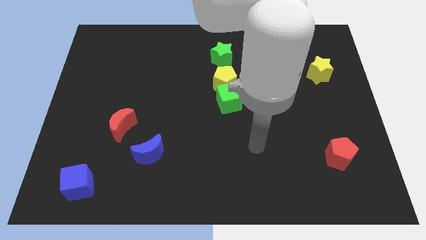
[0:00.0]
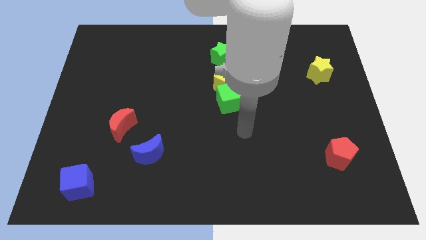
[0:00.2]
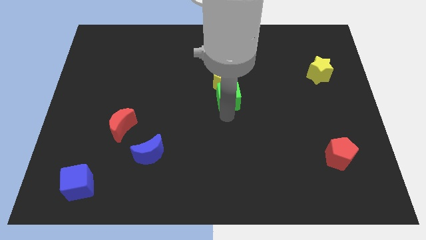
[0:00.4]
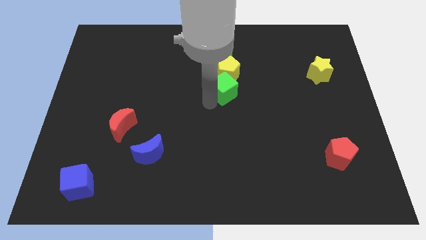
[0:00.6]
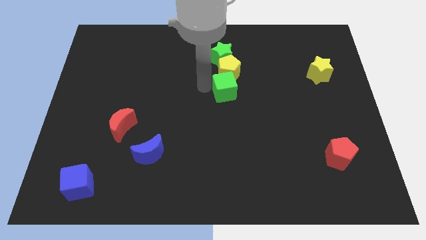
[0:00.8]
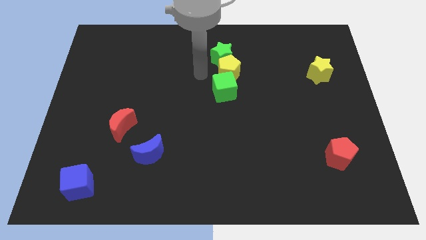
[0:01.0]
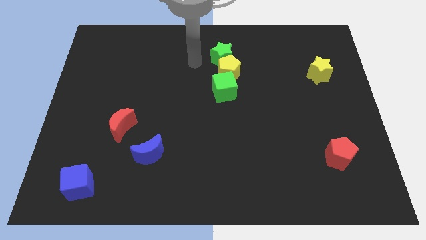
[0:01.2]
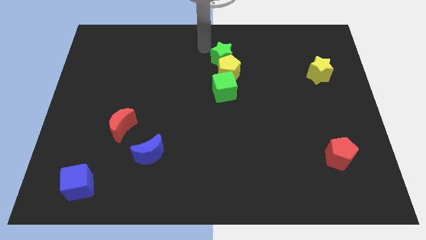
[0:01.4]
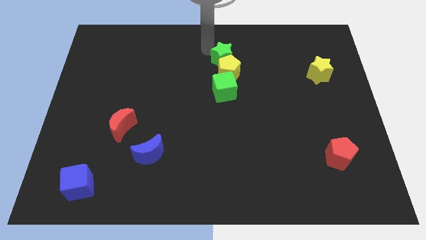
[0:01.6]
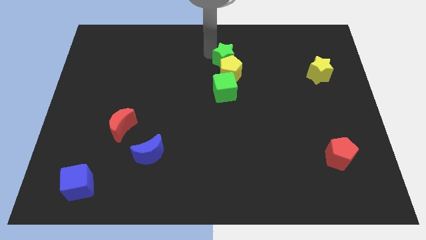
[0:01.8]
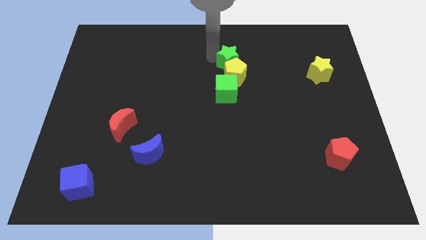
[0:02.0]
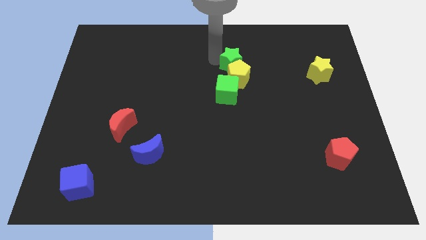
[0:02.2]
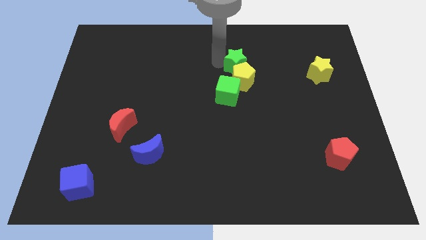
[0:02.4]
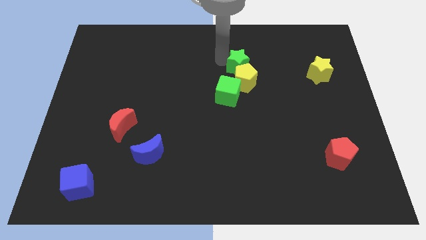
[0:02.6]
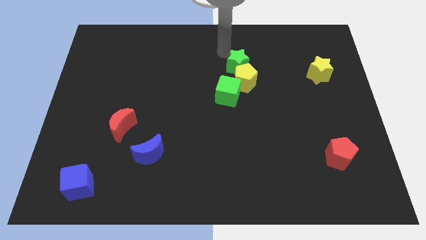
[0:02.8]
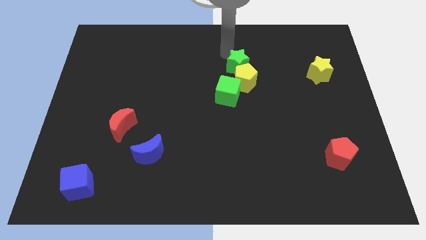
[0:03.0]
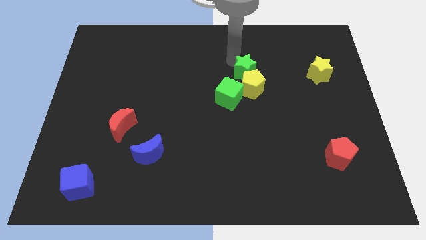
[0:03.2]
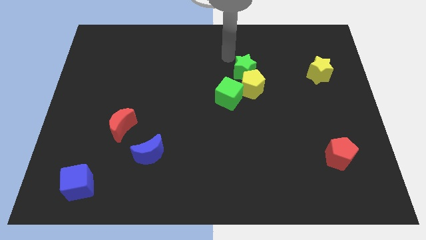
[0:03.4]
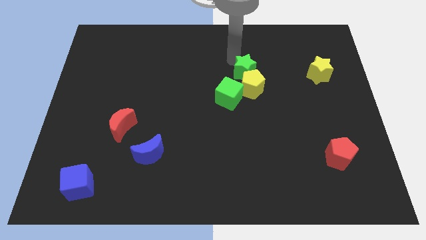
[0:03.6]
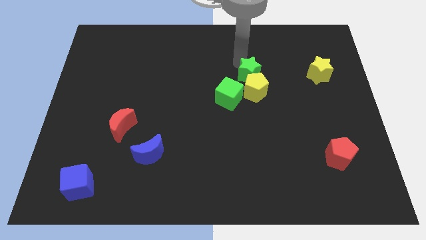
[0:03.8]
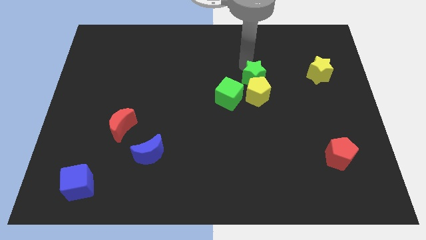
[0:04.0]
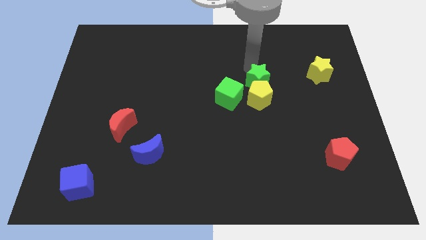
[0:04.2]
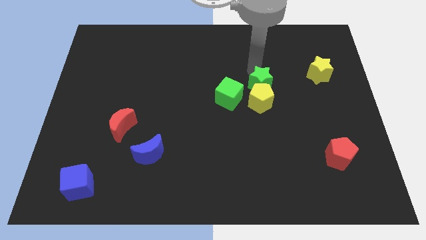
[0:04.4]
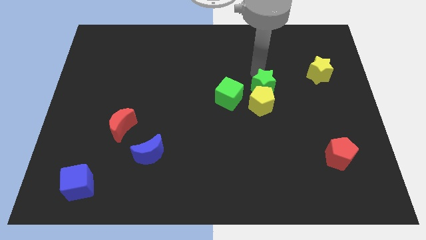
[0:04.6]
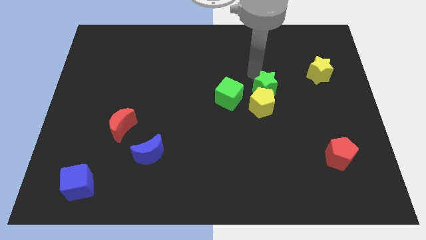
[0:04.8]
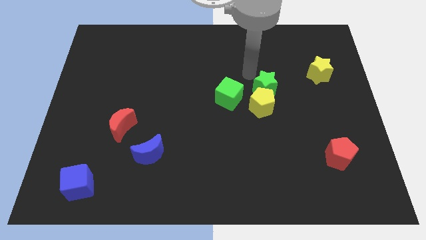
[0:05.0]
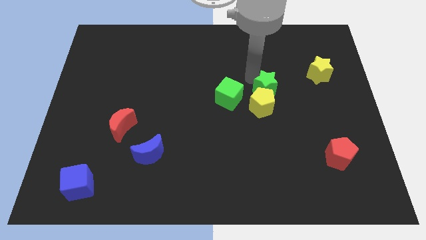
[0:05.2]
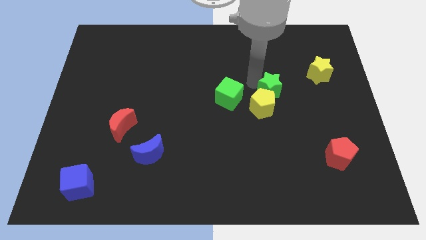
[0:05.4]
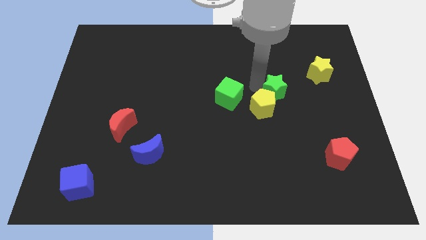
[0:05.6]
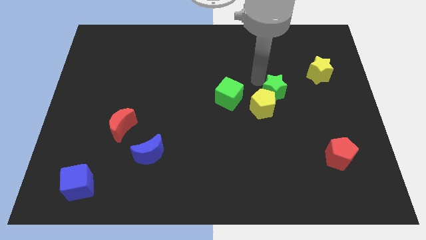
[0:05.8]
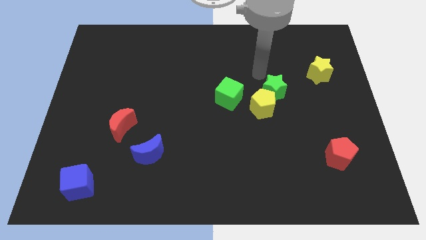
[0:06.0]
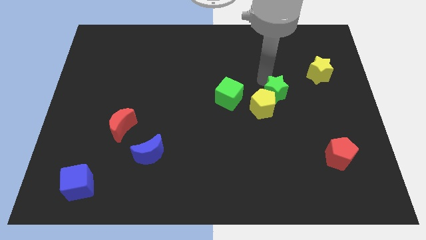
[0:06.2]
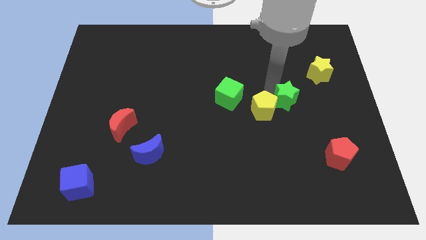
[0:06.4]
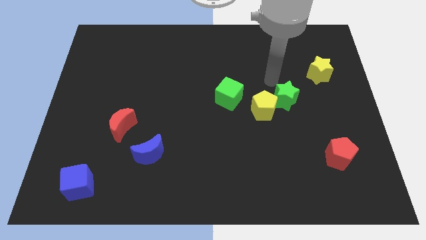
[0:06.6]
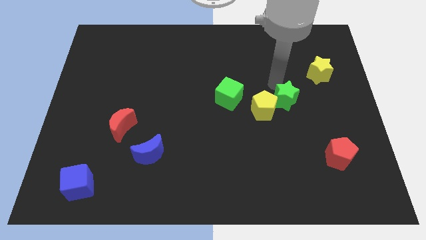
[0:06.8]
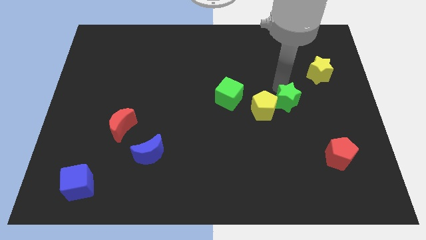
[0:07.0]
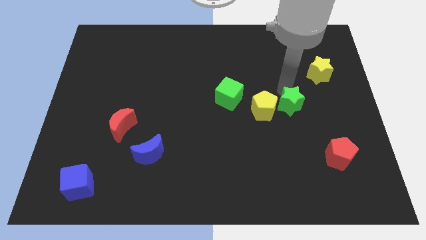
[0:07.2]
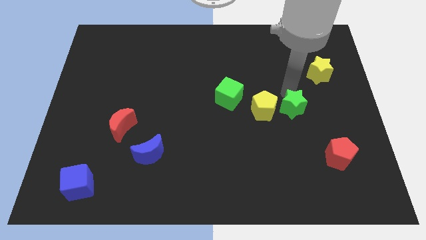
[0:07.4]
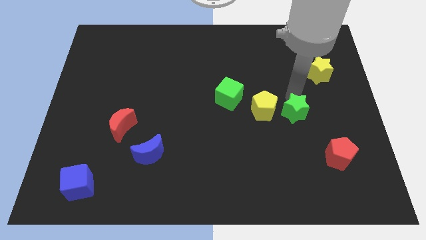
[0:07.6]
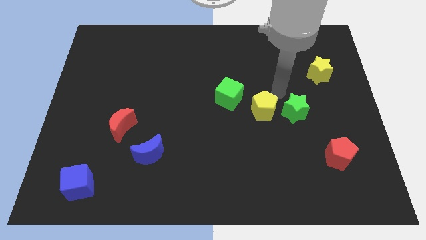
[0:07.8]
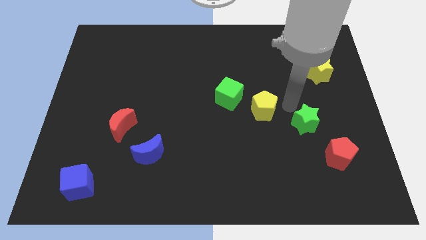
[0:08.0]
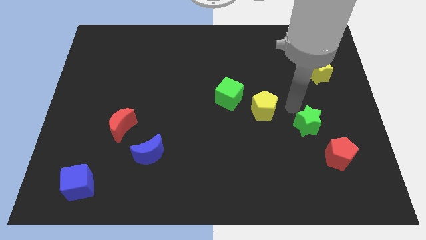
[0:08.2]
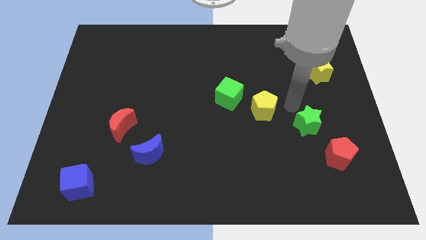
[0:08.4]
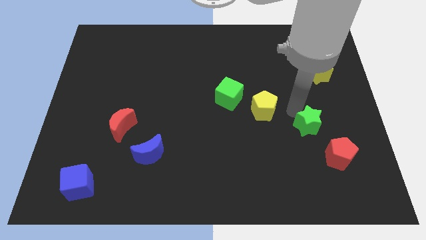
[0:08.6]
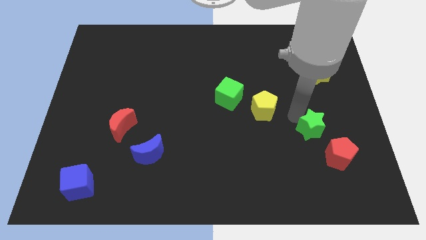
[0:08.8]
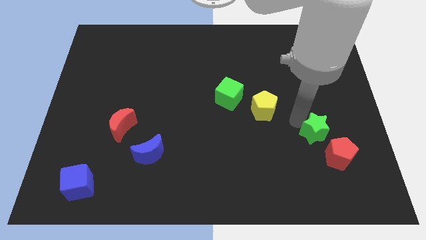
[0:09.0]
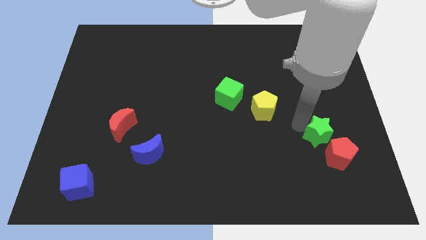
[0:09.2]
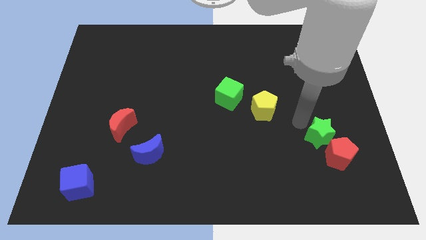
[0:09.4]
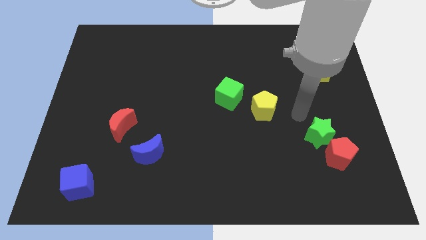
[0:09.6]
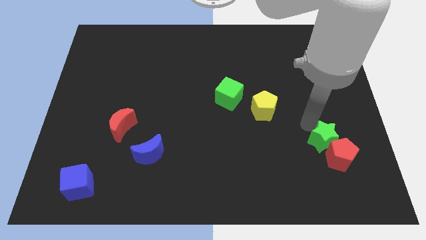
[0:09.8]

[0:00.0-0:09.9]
move the green star towards the red pentagon

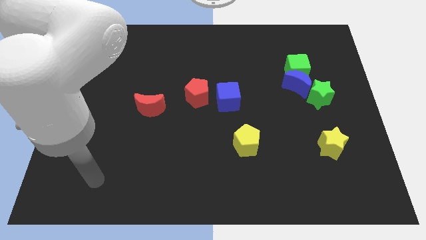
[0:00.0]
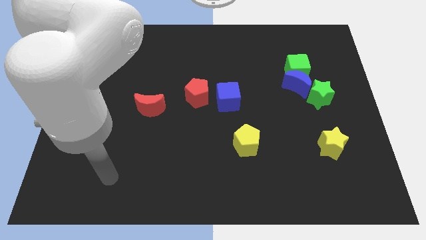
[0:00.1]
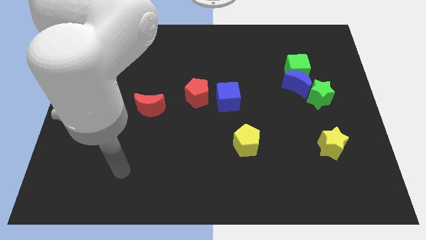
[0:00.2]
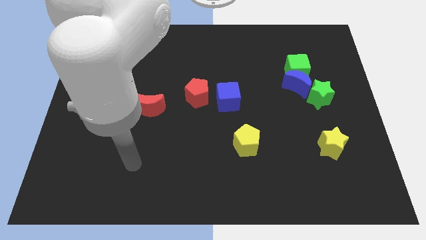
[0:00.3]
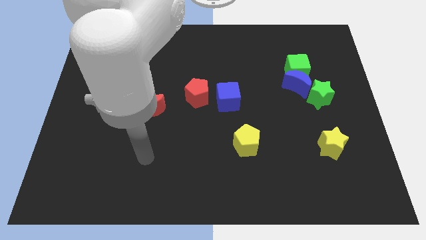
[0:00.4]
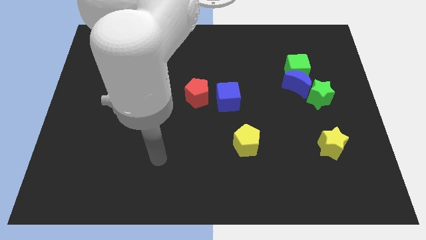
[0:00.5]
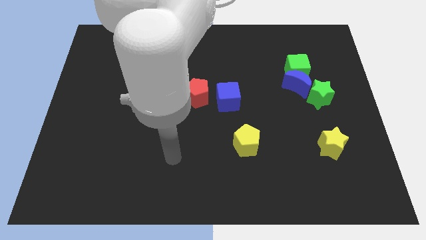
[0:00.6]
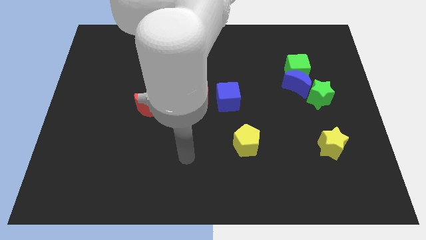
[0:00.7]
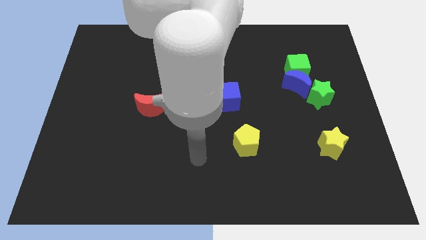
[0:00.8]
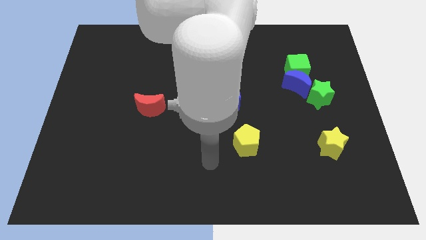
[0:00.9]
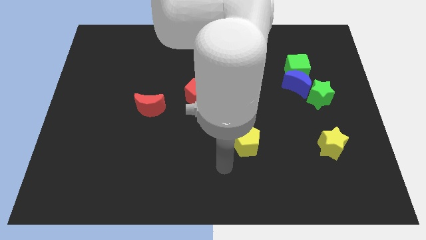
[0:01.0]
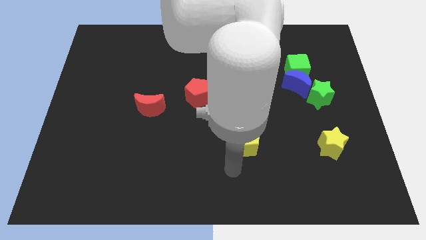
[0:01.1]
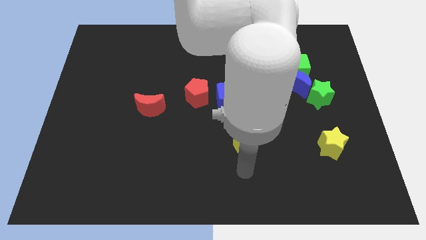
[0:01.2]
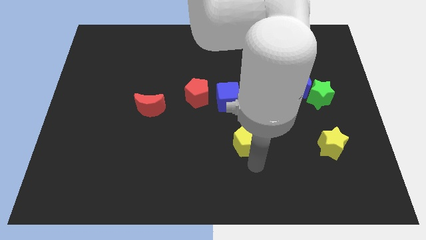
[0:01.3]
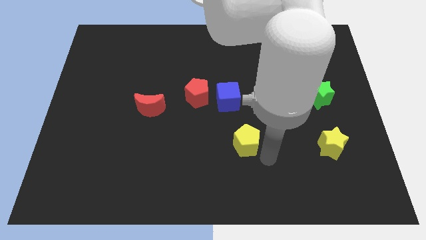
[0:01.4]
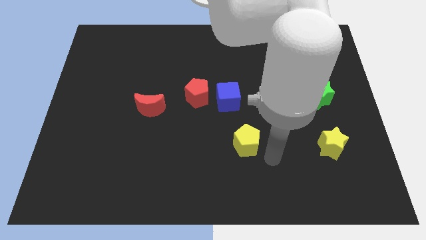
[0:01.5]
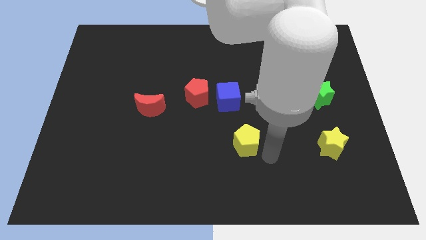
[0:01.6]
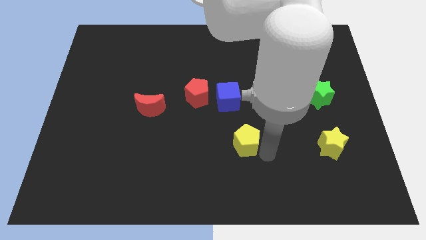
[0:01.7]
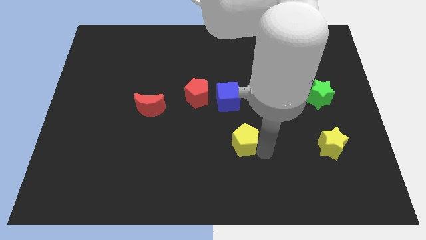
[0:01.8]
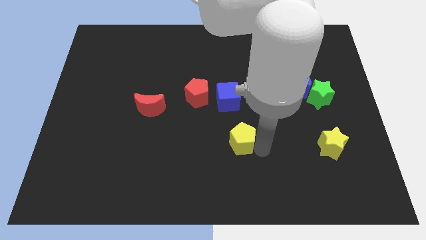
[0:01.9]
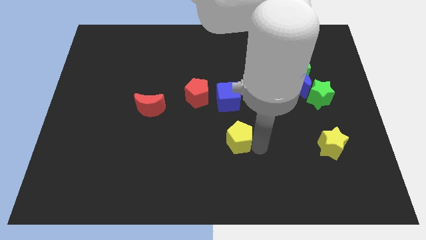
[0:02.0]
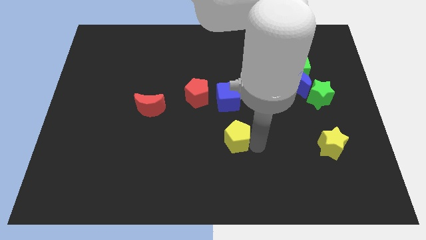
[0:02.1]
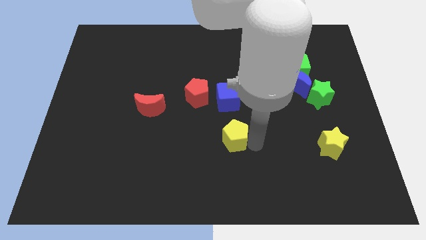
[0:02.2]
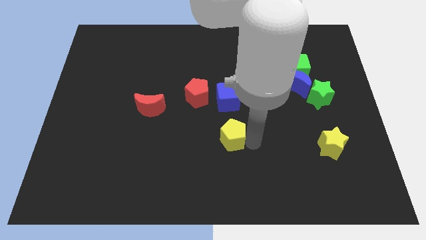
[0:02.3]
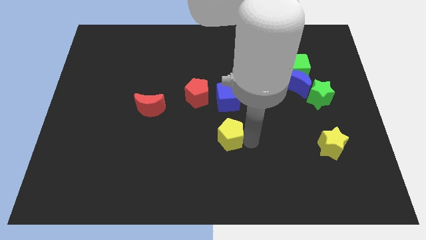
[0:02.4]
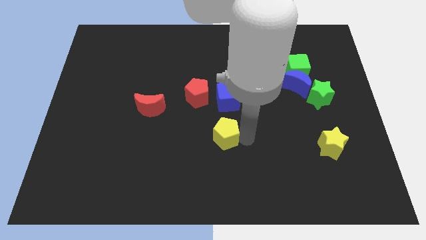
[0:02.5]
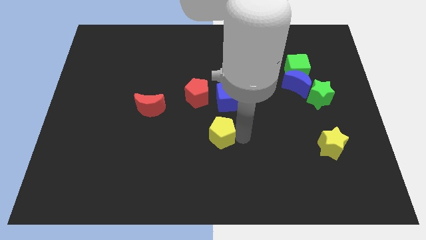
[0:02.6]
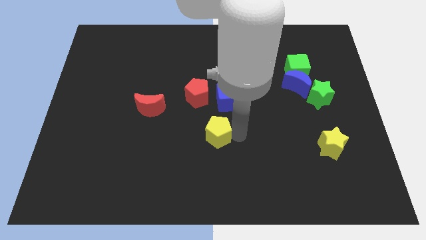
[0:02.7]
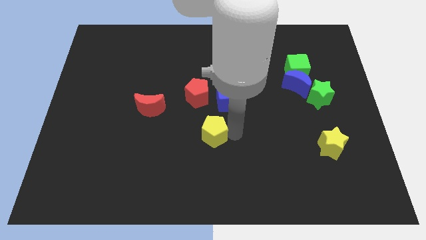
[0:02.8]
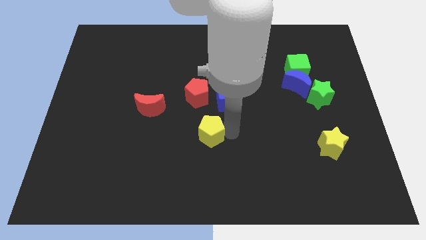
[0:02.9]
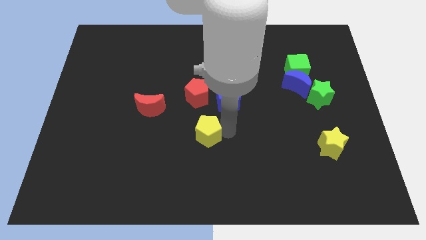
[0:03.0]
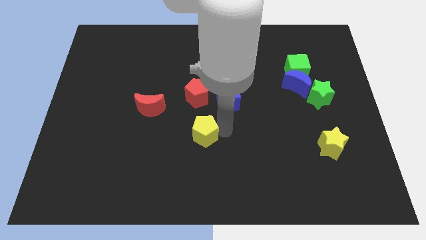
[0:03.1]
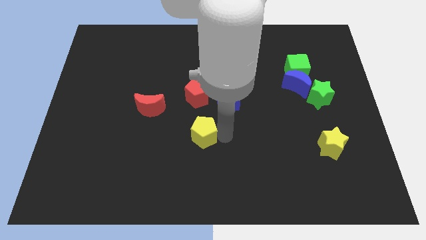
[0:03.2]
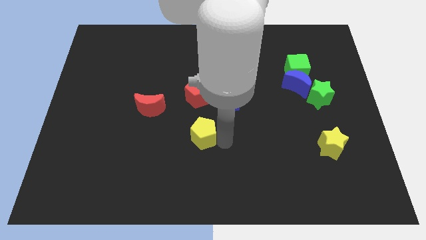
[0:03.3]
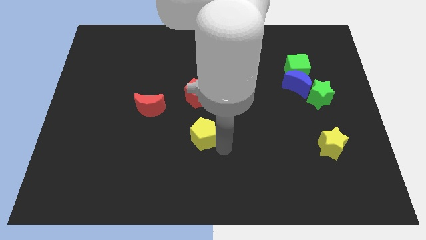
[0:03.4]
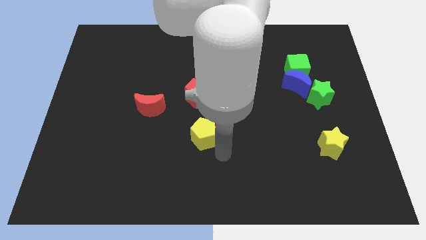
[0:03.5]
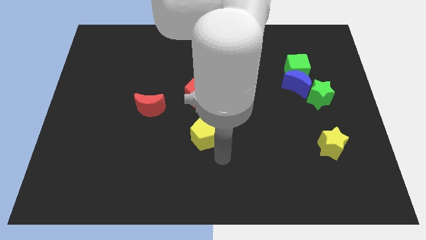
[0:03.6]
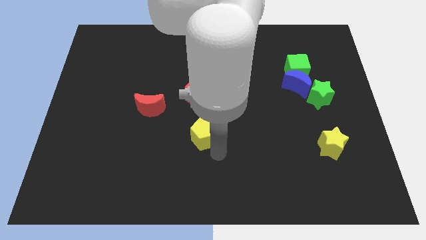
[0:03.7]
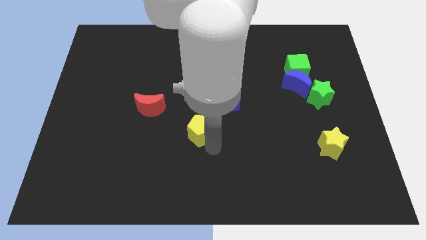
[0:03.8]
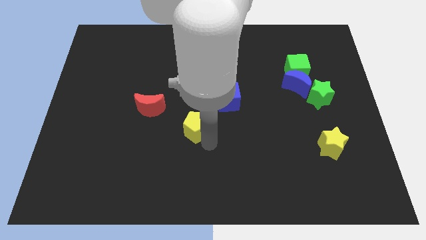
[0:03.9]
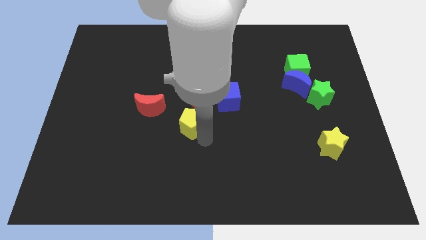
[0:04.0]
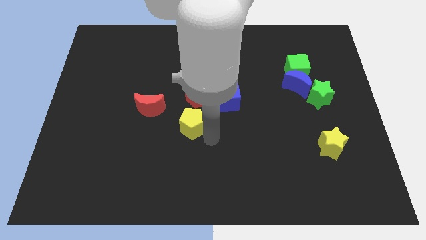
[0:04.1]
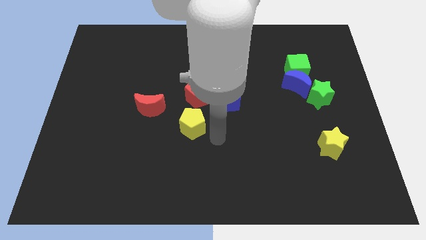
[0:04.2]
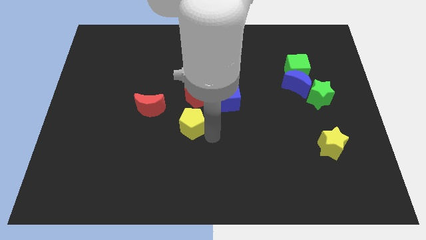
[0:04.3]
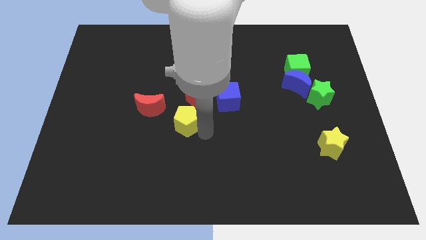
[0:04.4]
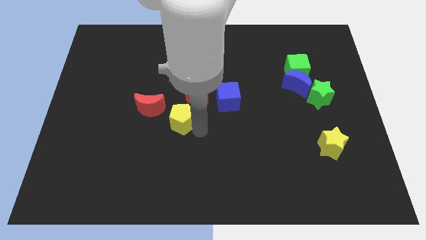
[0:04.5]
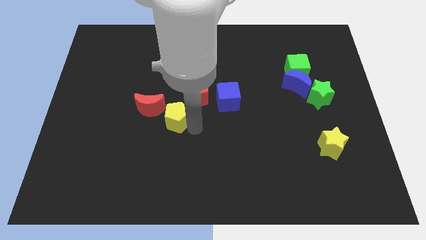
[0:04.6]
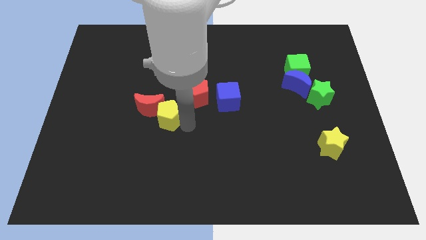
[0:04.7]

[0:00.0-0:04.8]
slide the yellow pentagon towards the red moon
